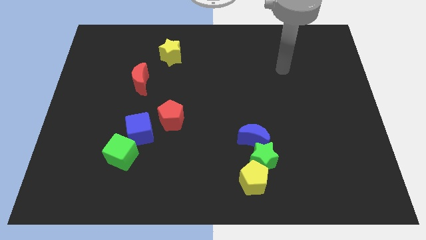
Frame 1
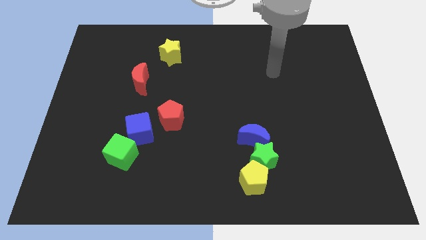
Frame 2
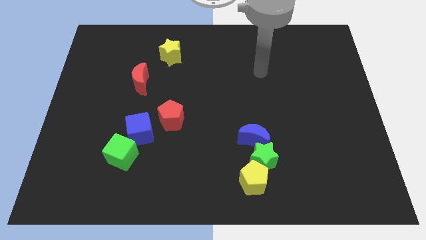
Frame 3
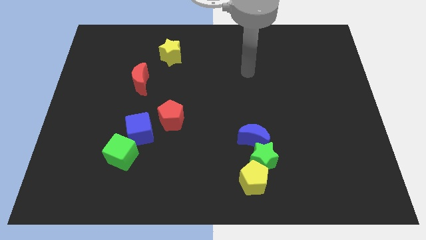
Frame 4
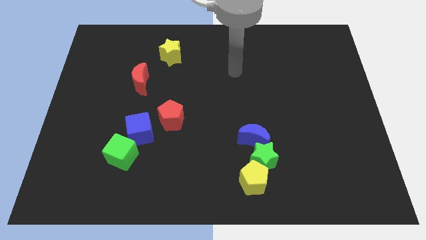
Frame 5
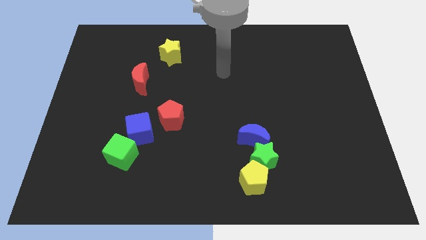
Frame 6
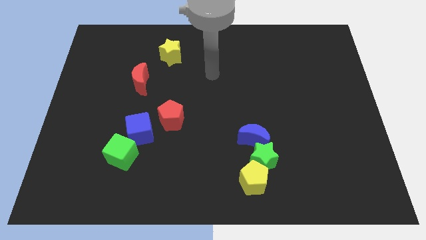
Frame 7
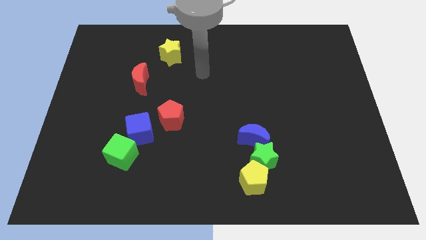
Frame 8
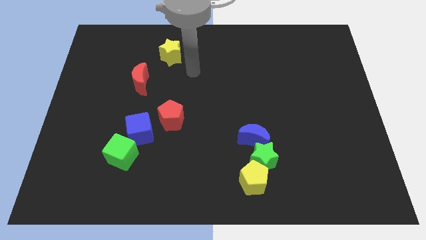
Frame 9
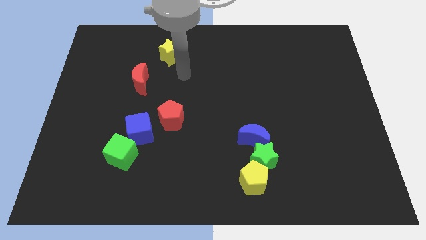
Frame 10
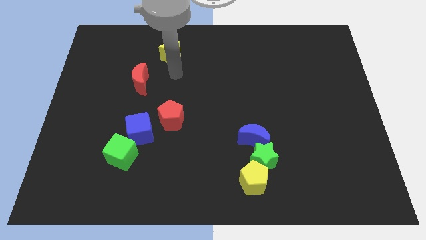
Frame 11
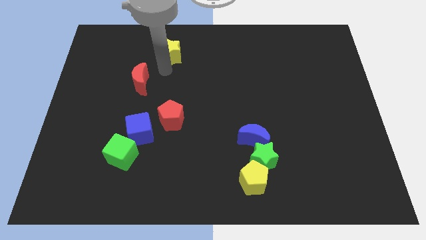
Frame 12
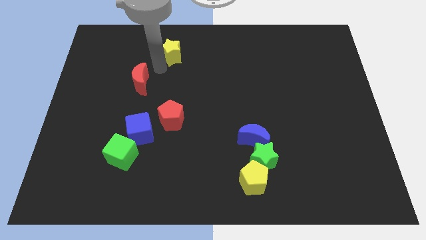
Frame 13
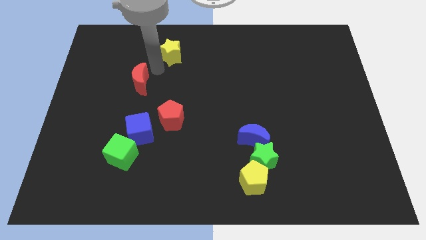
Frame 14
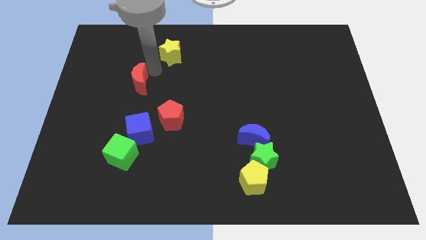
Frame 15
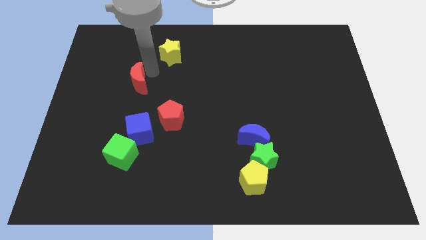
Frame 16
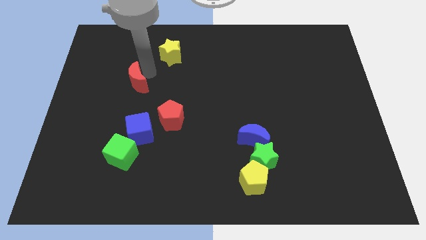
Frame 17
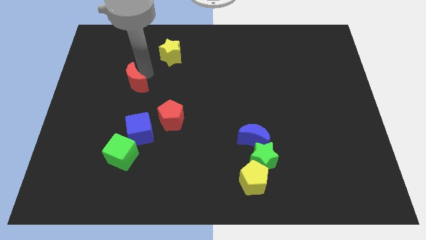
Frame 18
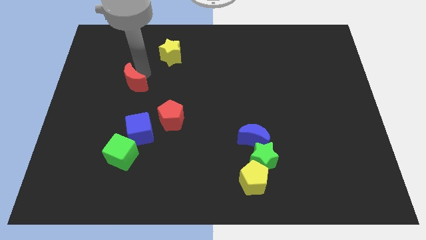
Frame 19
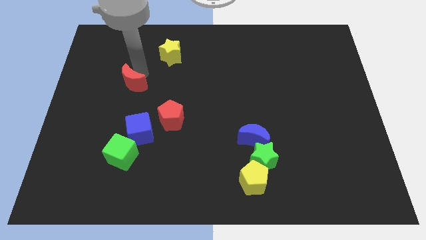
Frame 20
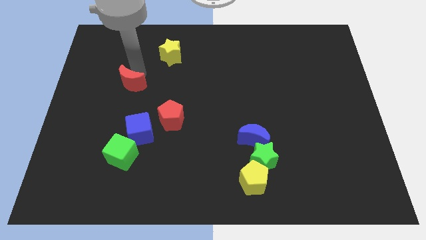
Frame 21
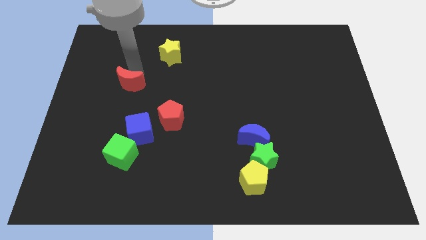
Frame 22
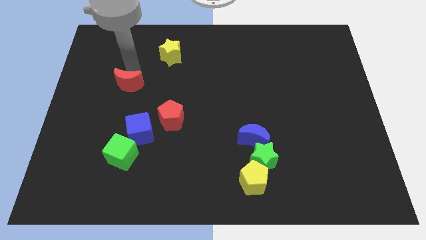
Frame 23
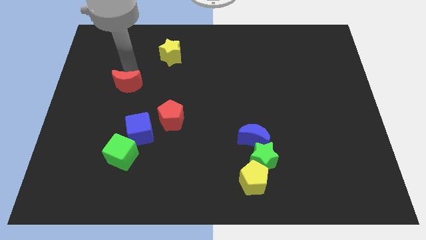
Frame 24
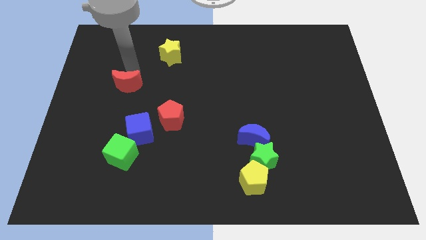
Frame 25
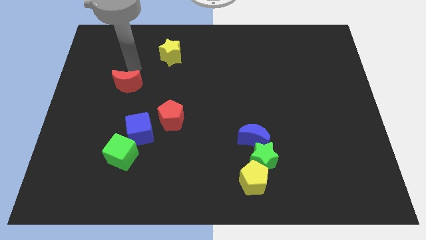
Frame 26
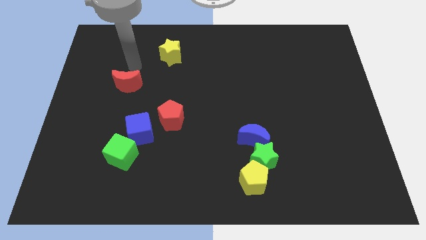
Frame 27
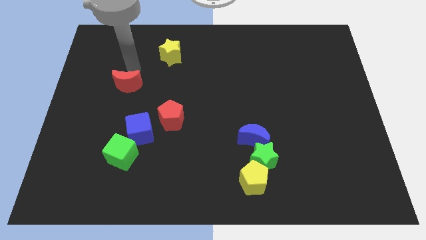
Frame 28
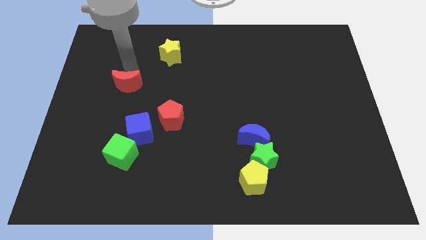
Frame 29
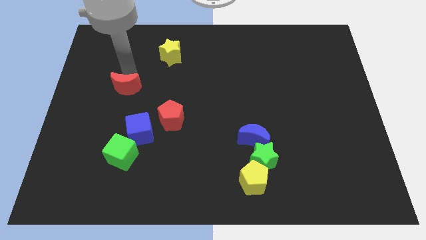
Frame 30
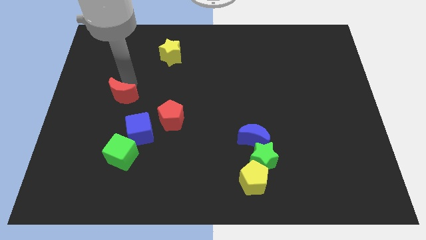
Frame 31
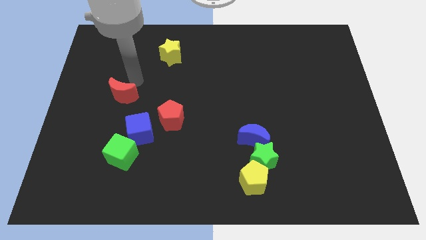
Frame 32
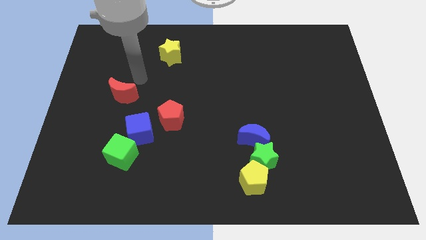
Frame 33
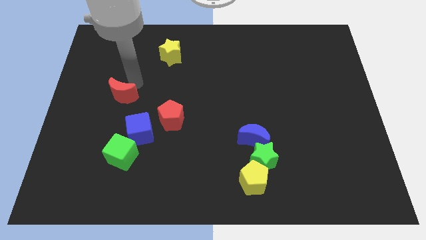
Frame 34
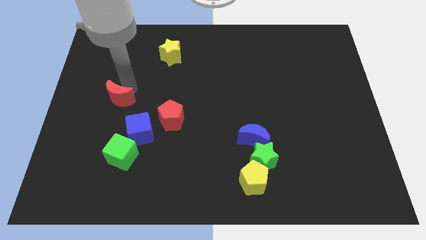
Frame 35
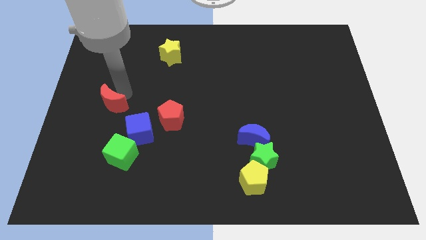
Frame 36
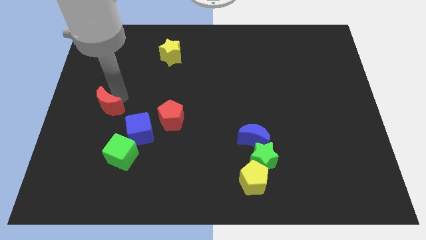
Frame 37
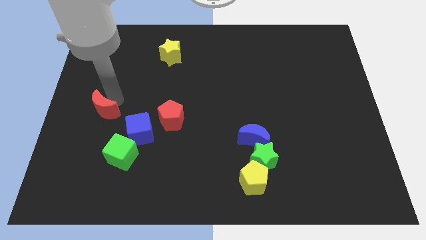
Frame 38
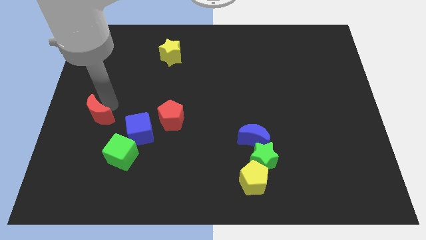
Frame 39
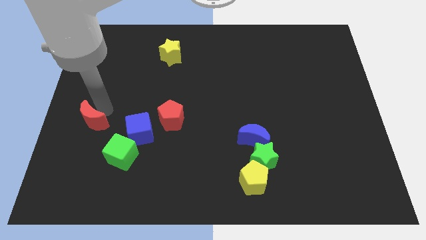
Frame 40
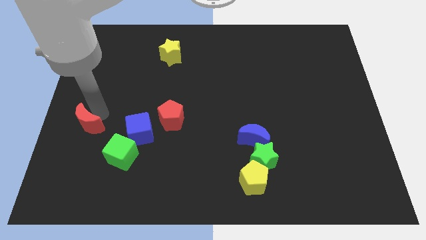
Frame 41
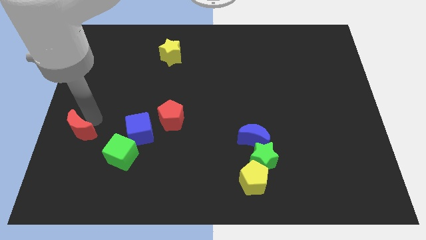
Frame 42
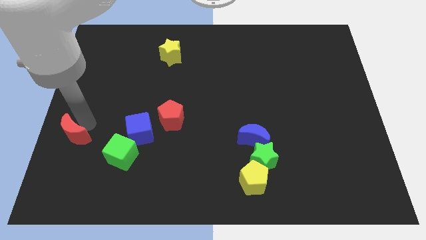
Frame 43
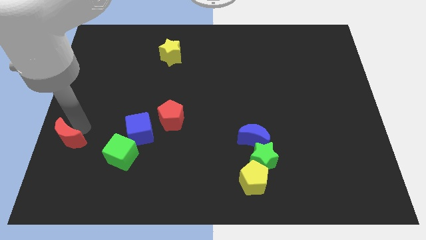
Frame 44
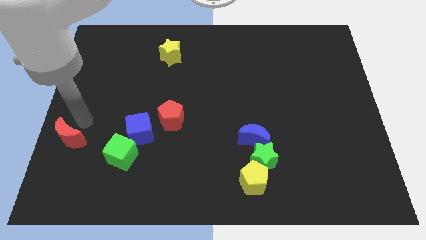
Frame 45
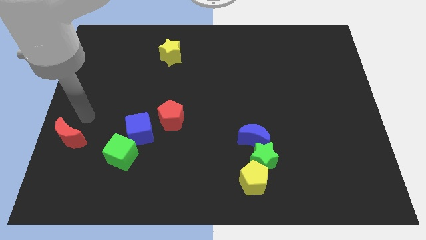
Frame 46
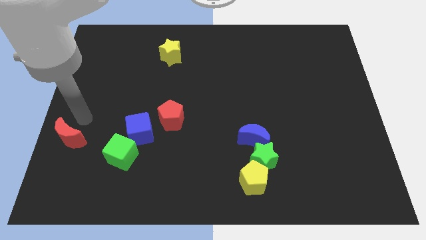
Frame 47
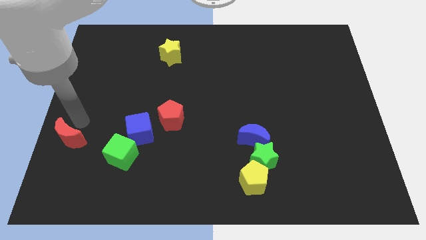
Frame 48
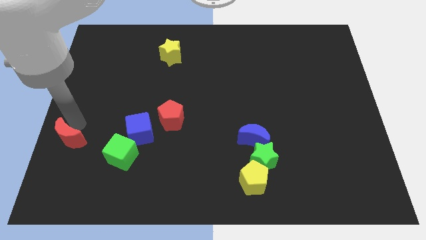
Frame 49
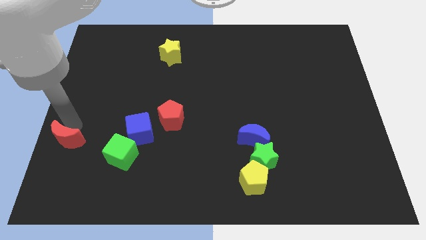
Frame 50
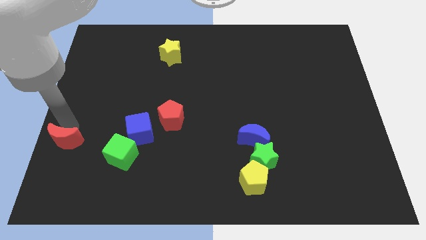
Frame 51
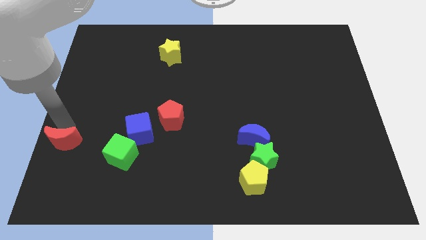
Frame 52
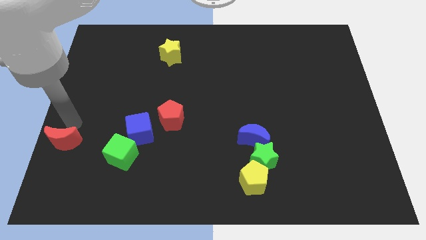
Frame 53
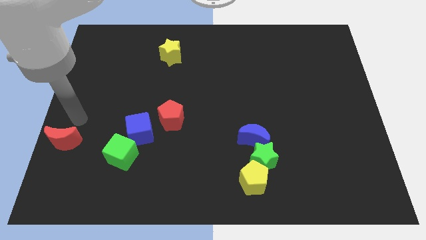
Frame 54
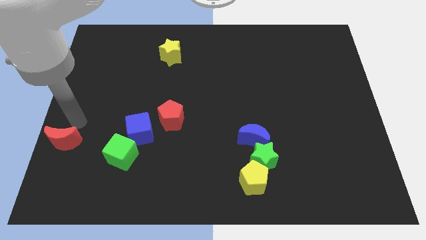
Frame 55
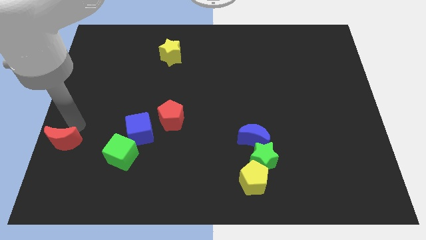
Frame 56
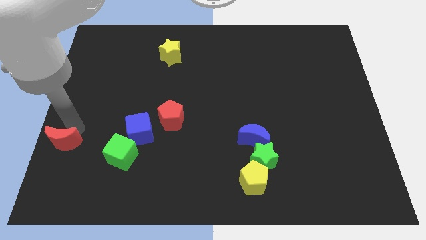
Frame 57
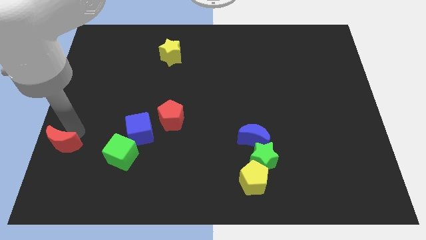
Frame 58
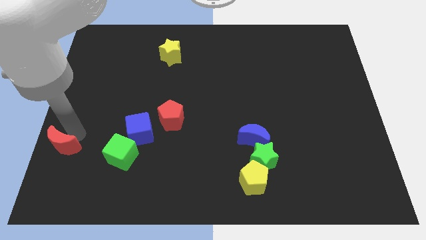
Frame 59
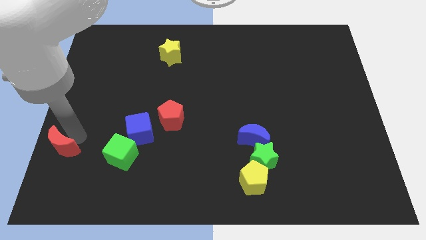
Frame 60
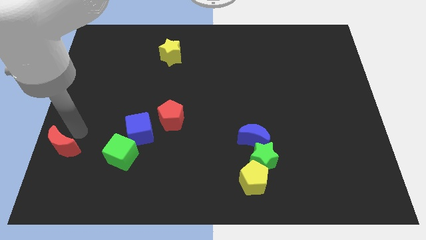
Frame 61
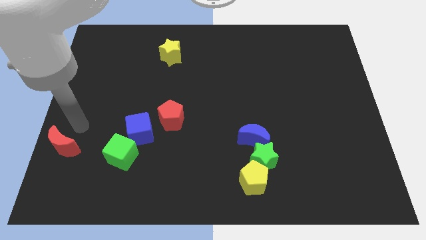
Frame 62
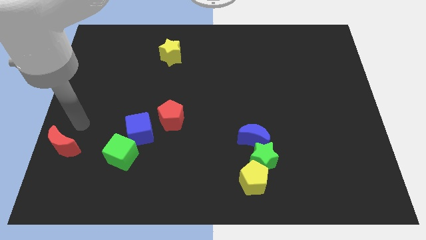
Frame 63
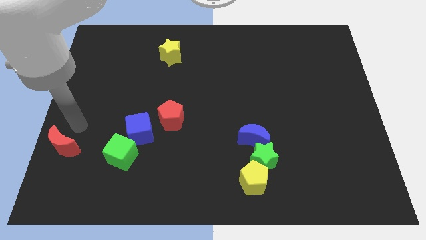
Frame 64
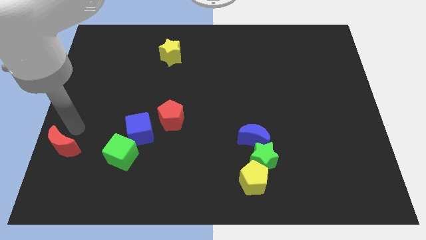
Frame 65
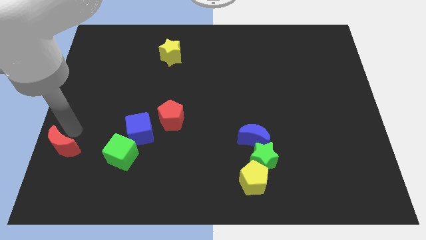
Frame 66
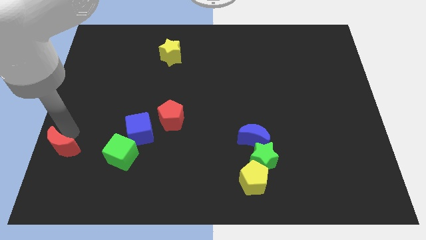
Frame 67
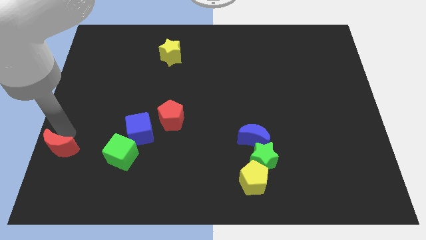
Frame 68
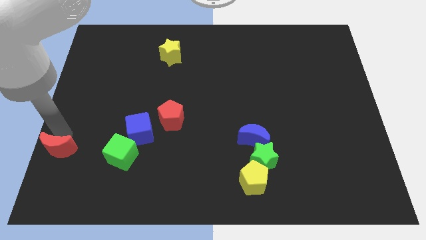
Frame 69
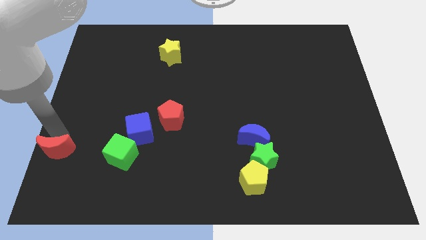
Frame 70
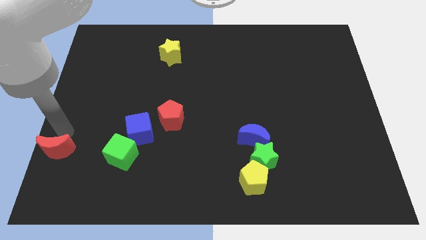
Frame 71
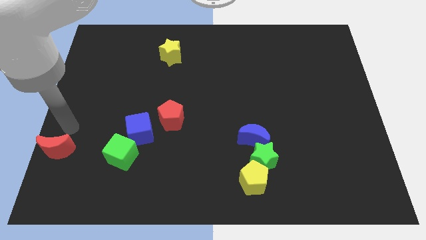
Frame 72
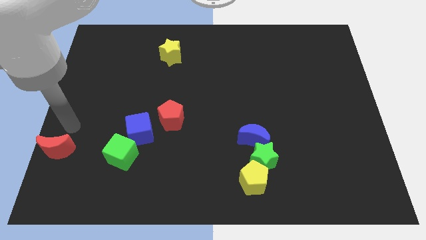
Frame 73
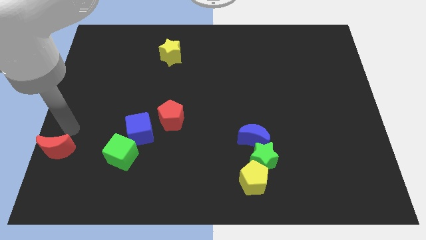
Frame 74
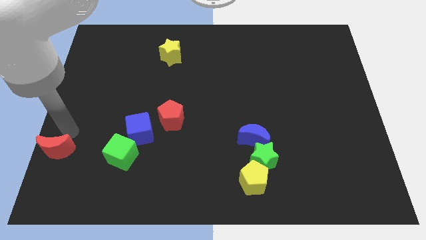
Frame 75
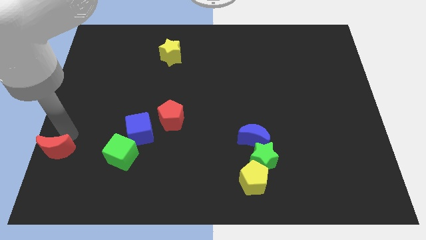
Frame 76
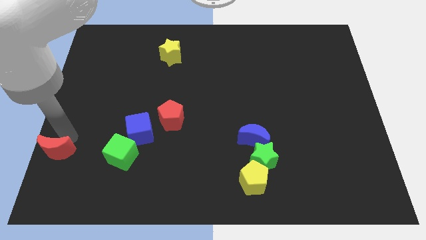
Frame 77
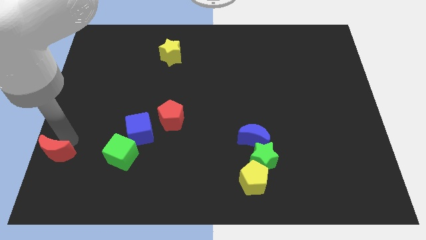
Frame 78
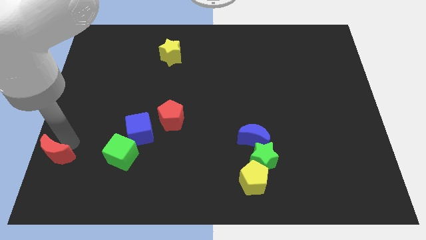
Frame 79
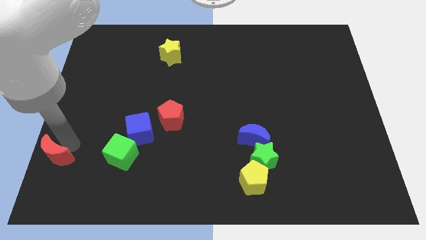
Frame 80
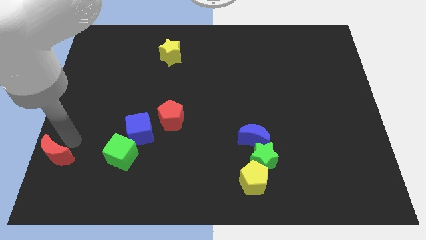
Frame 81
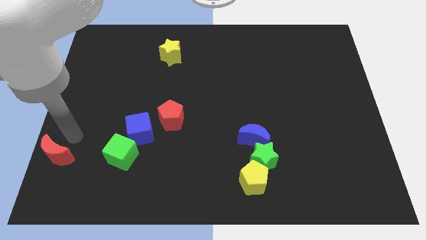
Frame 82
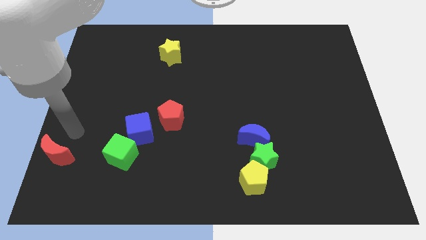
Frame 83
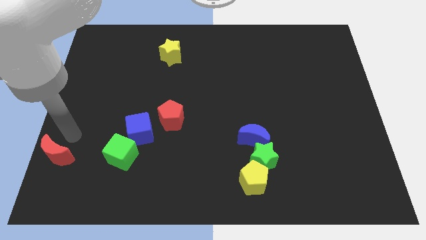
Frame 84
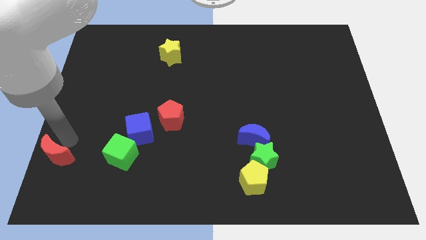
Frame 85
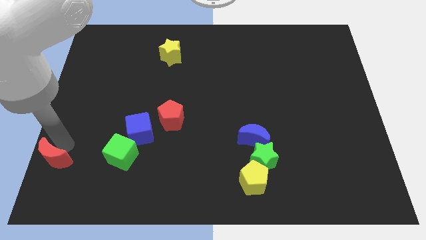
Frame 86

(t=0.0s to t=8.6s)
slide the red moon to the bottom left
